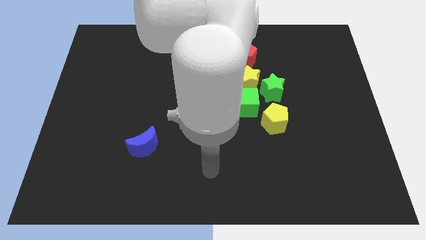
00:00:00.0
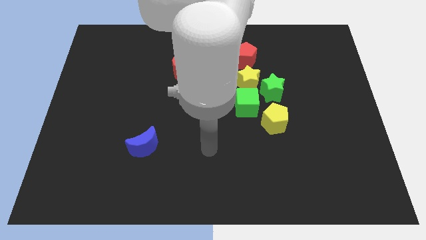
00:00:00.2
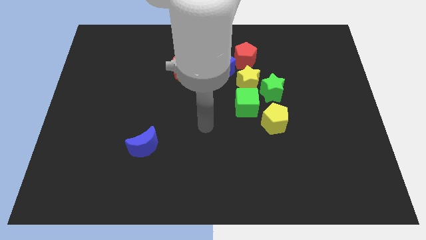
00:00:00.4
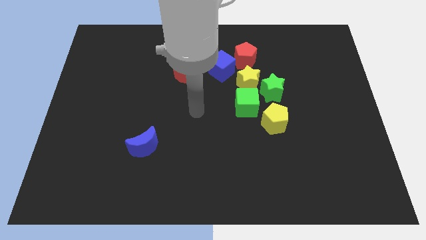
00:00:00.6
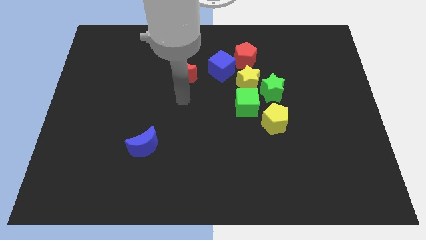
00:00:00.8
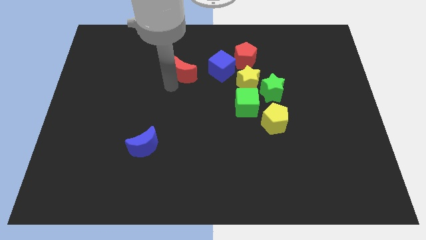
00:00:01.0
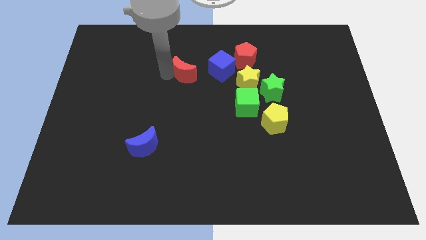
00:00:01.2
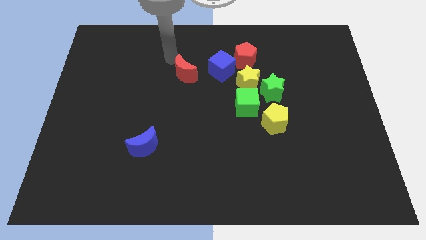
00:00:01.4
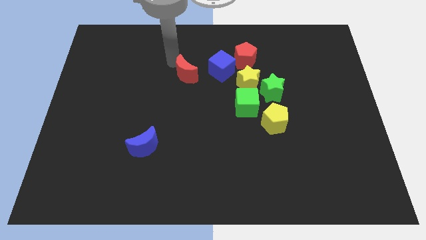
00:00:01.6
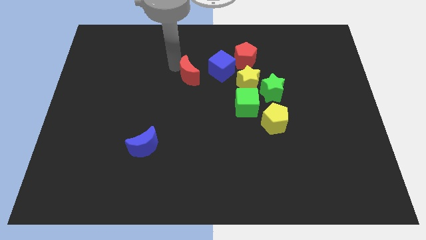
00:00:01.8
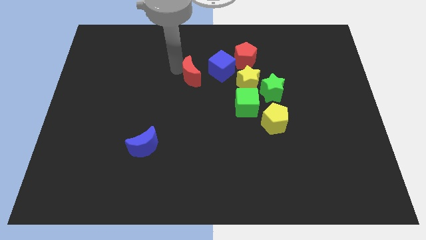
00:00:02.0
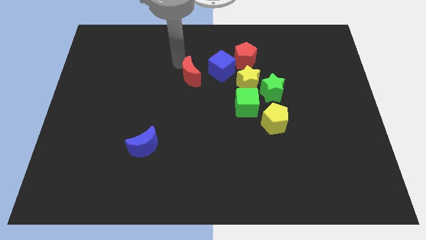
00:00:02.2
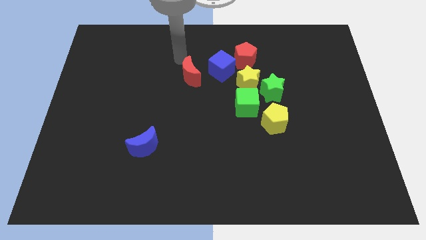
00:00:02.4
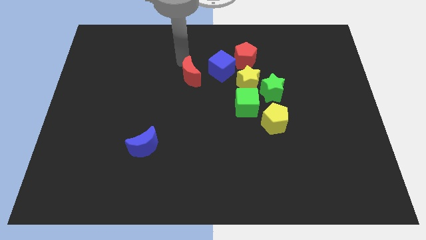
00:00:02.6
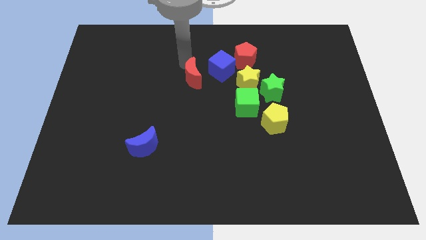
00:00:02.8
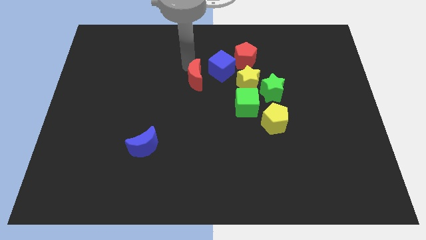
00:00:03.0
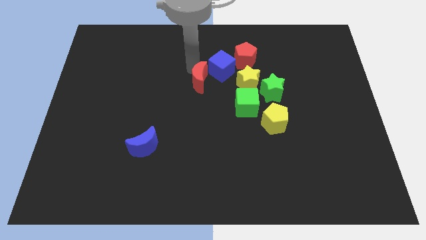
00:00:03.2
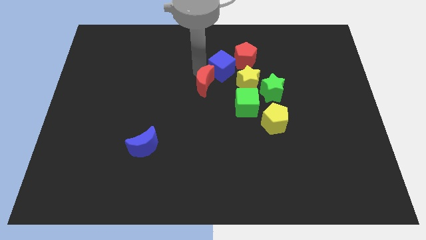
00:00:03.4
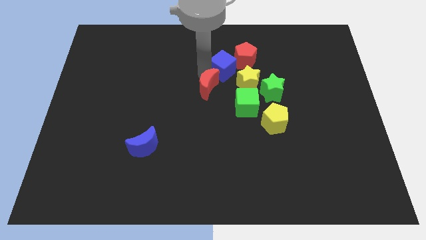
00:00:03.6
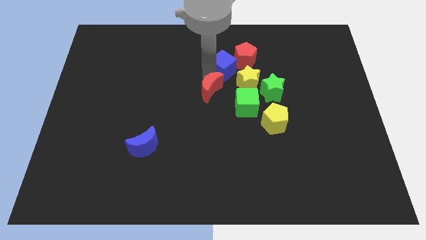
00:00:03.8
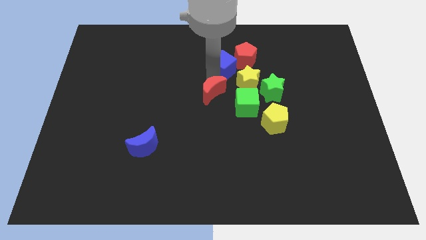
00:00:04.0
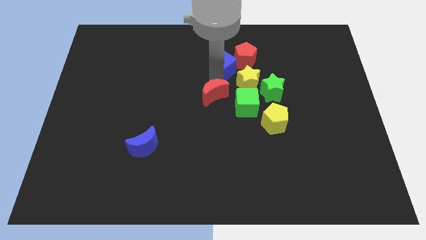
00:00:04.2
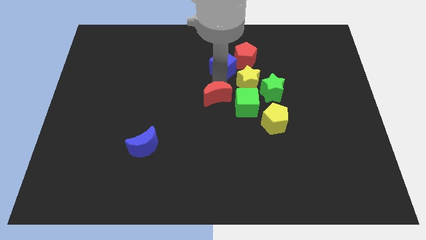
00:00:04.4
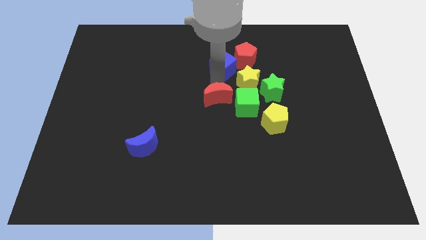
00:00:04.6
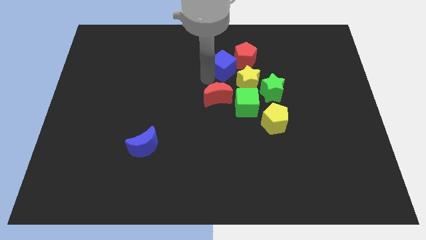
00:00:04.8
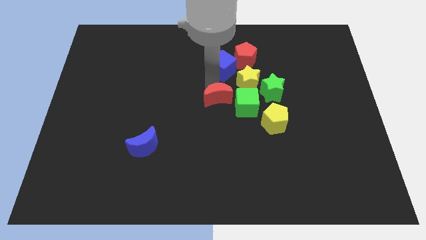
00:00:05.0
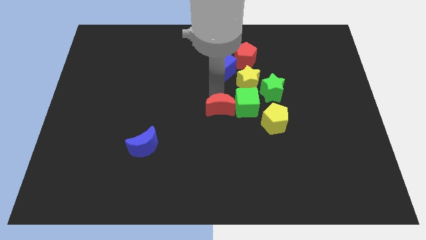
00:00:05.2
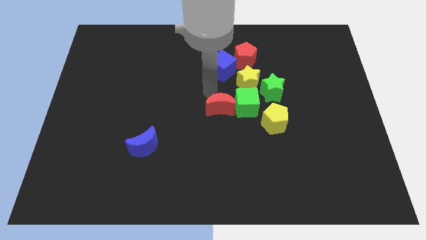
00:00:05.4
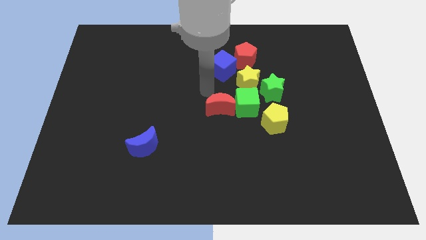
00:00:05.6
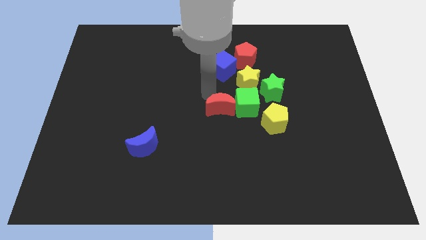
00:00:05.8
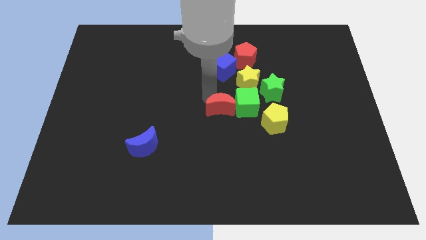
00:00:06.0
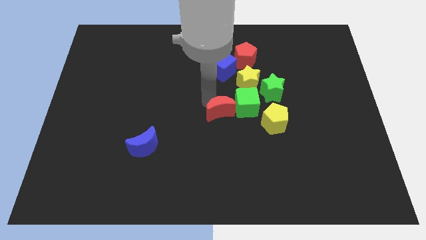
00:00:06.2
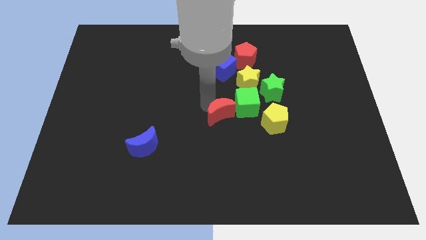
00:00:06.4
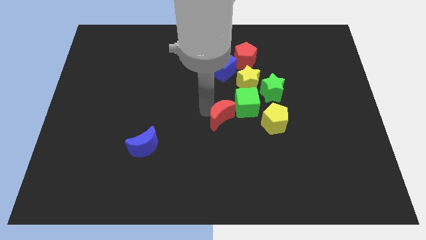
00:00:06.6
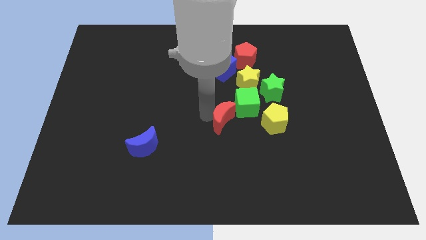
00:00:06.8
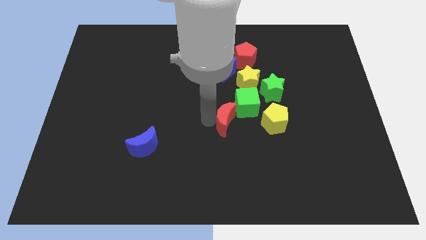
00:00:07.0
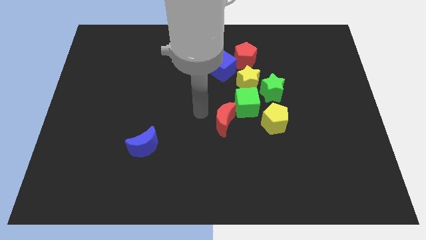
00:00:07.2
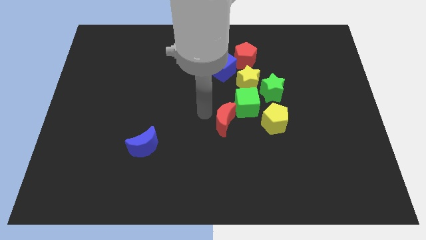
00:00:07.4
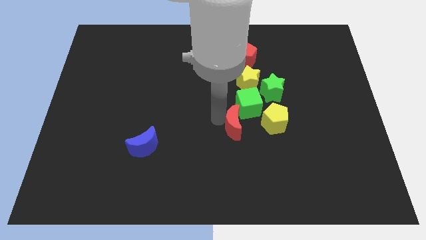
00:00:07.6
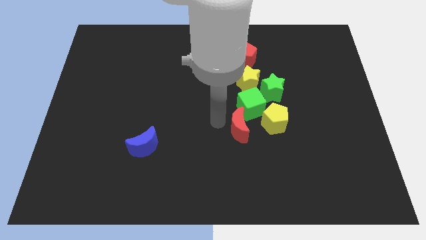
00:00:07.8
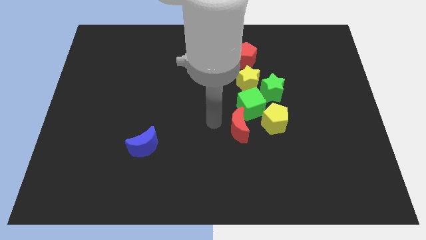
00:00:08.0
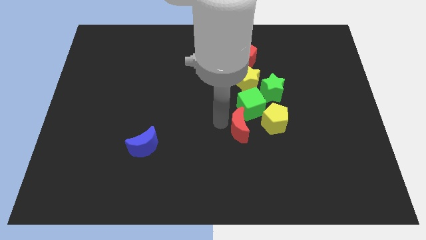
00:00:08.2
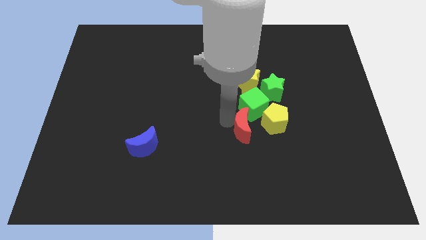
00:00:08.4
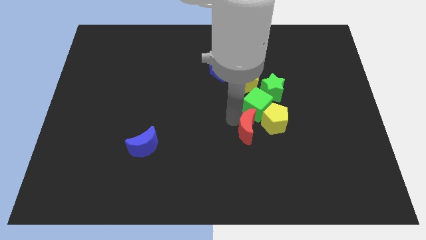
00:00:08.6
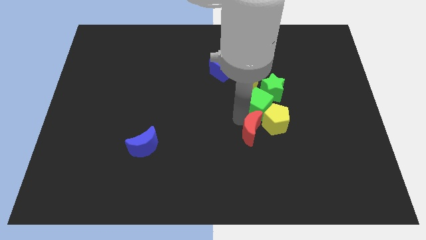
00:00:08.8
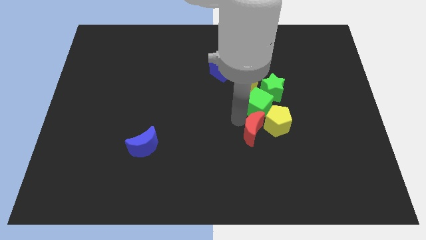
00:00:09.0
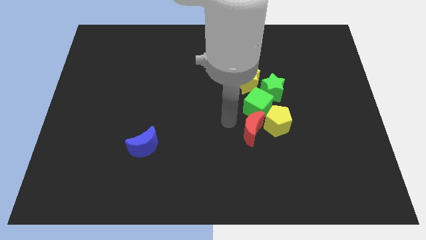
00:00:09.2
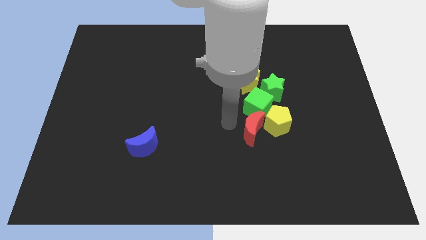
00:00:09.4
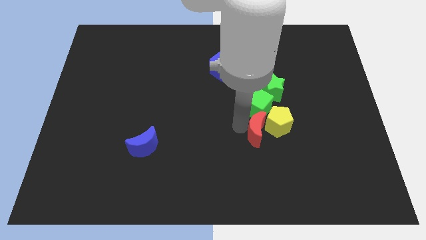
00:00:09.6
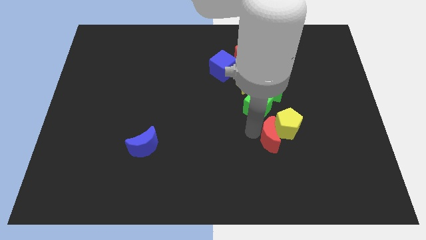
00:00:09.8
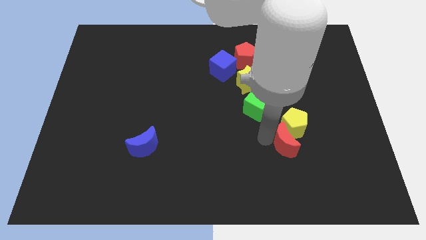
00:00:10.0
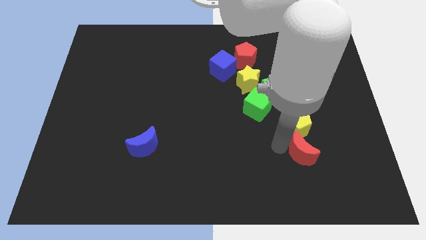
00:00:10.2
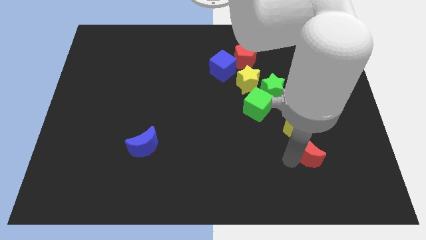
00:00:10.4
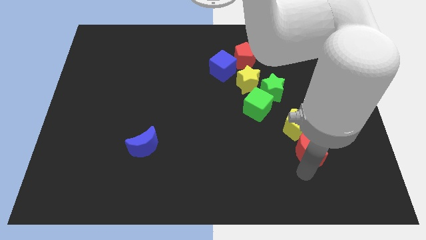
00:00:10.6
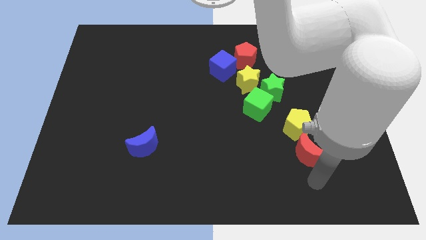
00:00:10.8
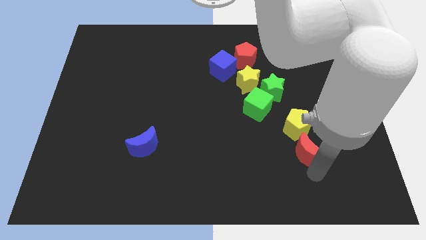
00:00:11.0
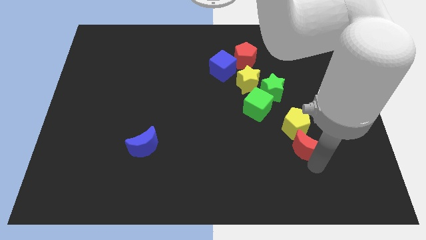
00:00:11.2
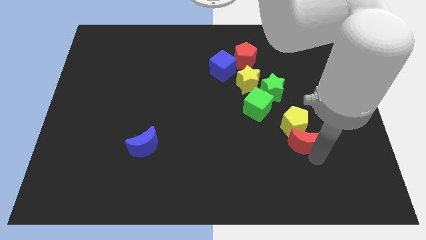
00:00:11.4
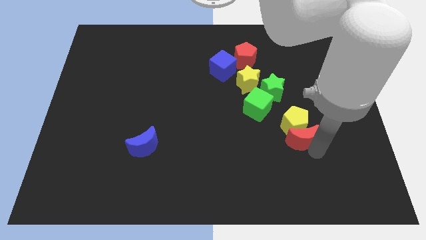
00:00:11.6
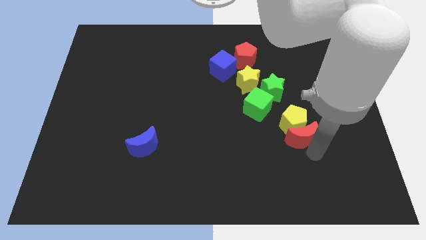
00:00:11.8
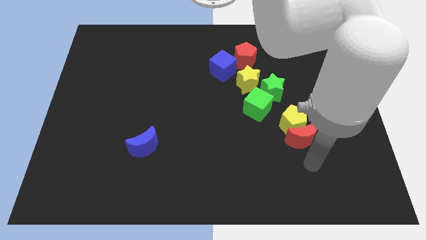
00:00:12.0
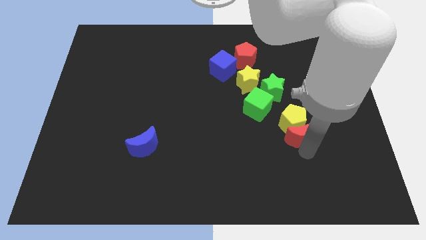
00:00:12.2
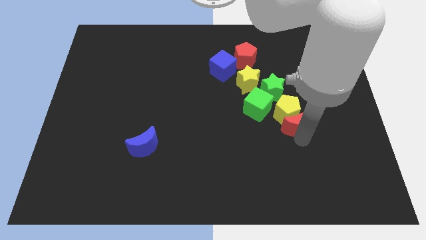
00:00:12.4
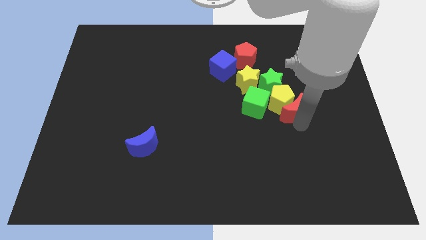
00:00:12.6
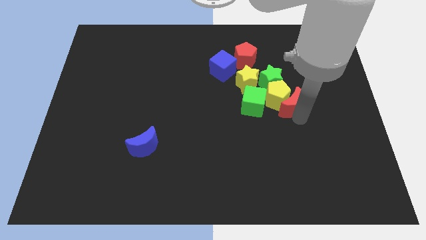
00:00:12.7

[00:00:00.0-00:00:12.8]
put the red moon to the bottom right of the yellow star

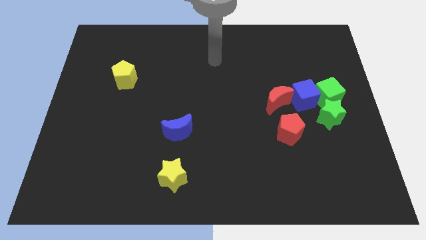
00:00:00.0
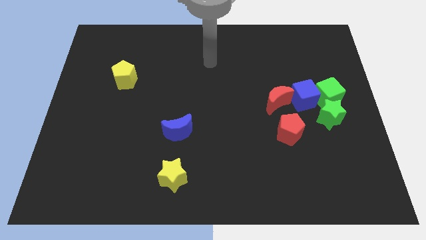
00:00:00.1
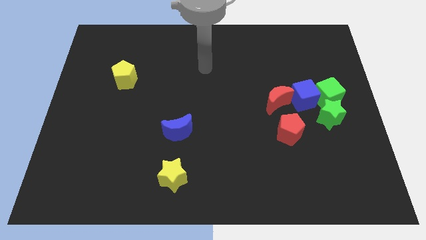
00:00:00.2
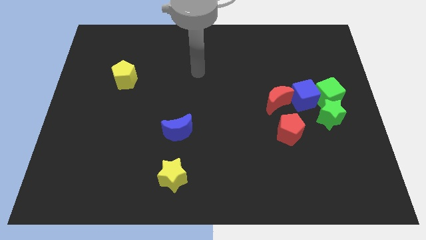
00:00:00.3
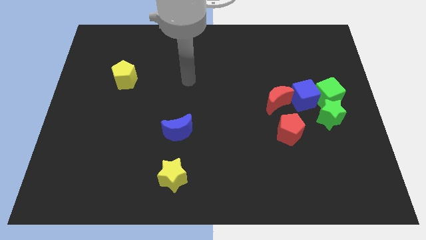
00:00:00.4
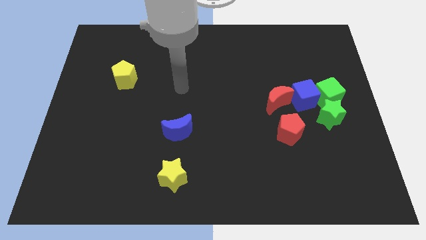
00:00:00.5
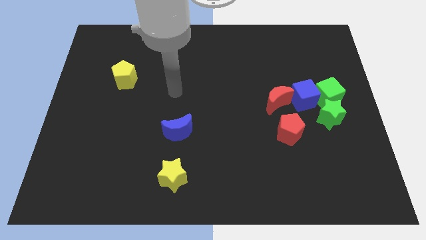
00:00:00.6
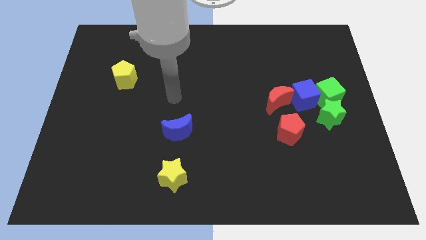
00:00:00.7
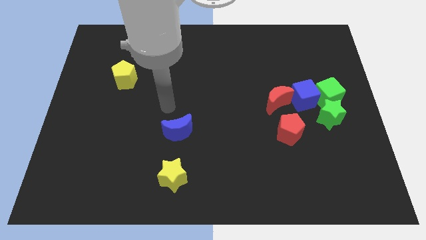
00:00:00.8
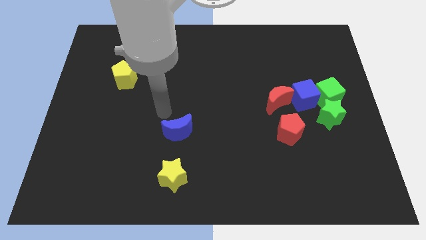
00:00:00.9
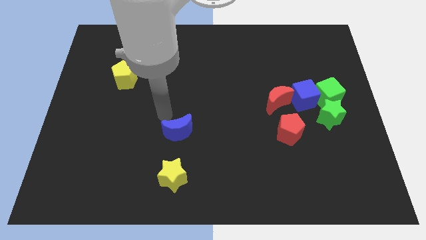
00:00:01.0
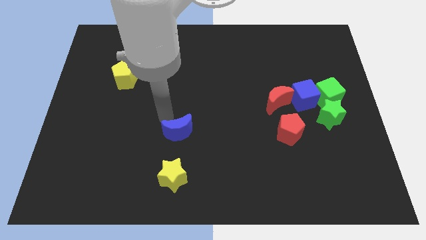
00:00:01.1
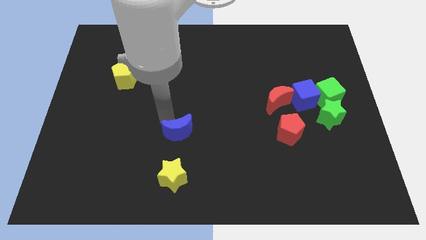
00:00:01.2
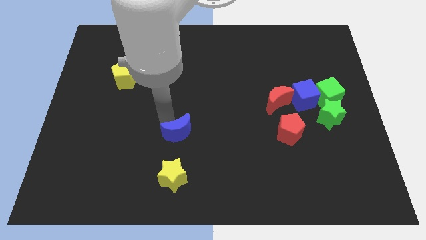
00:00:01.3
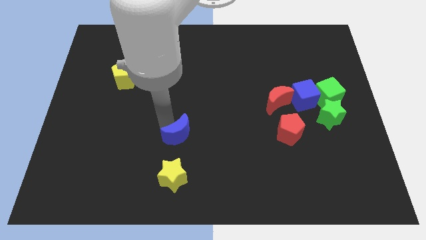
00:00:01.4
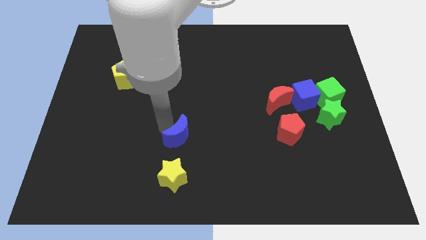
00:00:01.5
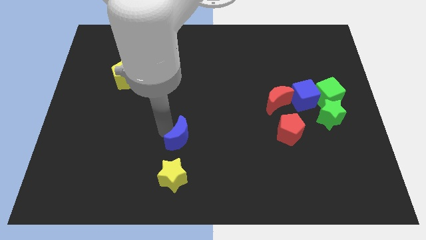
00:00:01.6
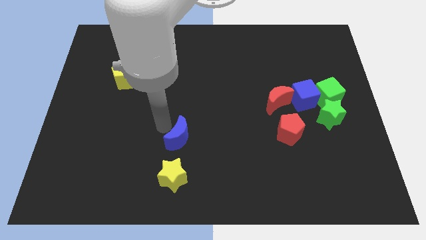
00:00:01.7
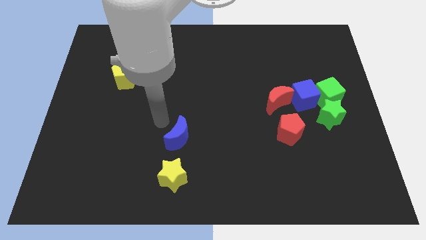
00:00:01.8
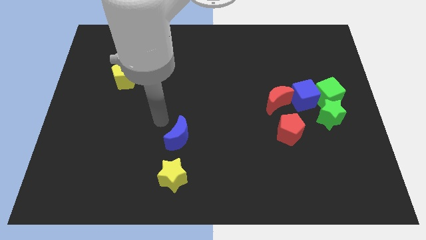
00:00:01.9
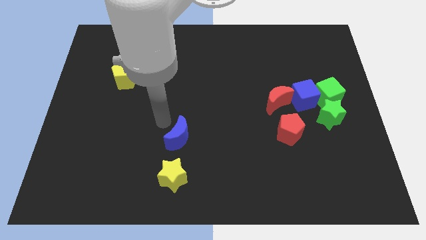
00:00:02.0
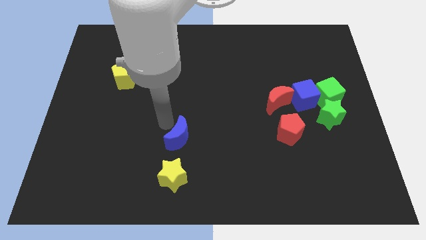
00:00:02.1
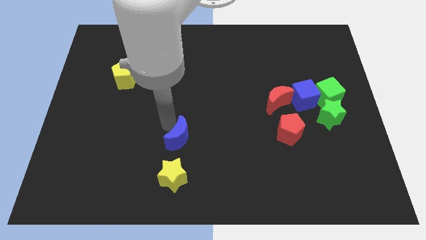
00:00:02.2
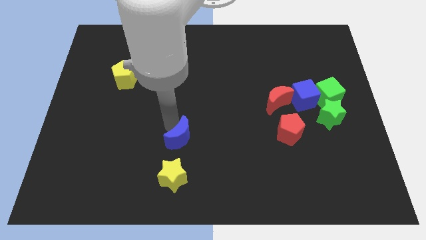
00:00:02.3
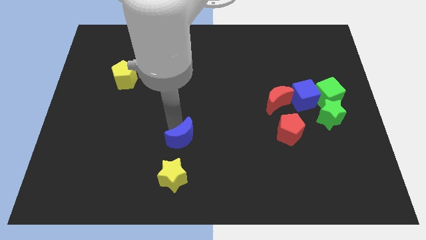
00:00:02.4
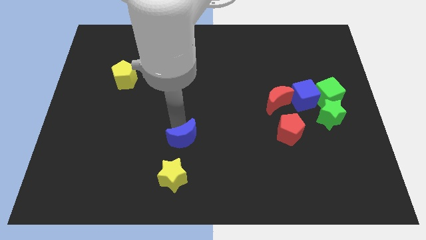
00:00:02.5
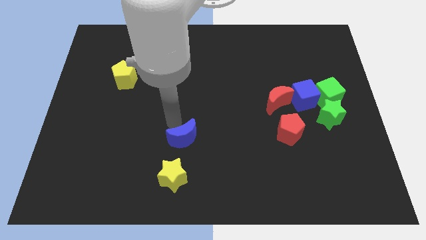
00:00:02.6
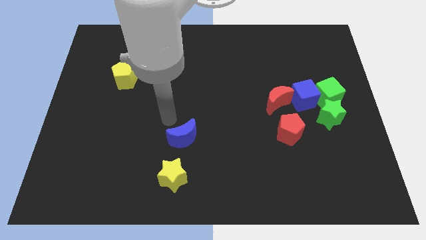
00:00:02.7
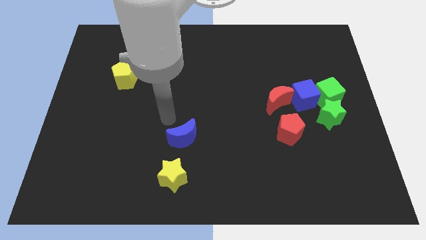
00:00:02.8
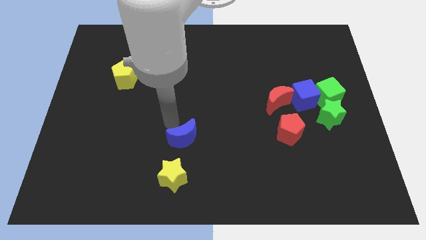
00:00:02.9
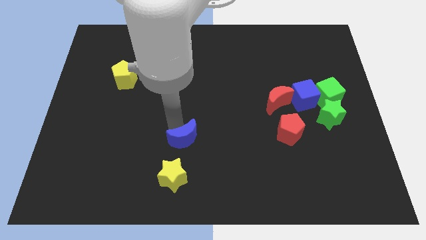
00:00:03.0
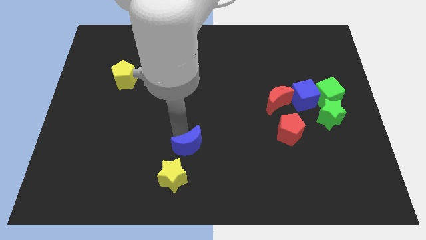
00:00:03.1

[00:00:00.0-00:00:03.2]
slide the blue moon diagonally up and to the right of the yellow star
